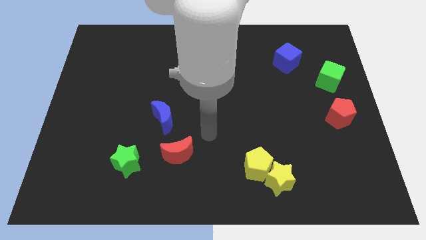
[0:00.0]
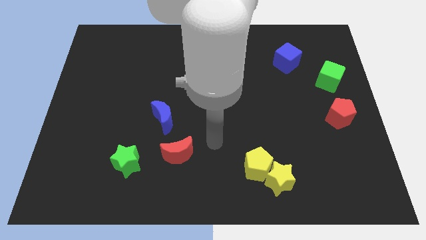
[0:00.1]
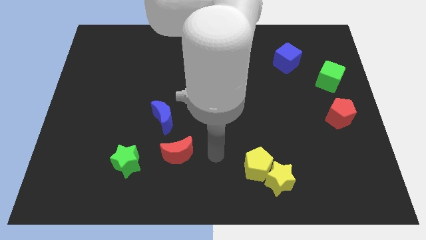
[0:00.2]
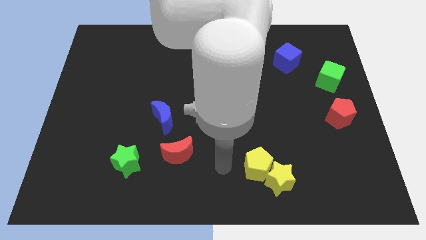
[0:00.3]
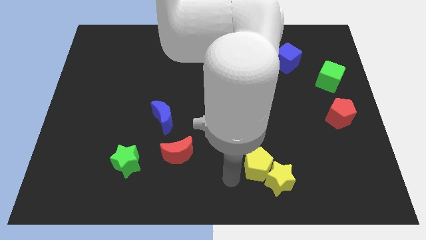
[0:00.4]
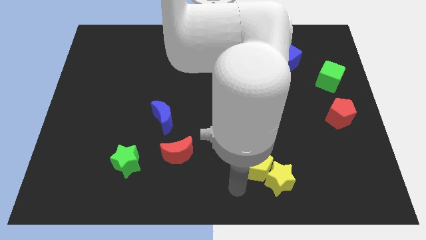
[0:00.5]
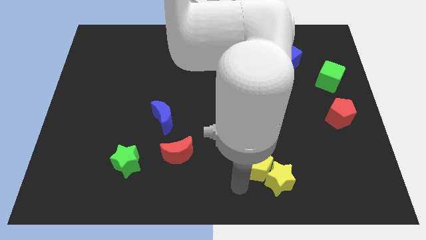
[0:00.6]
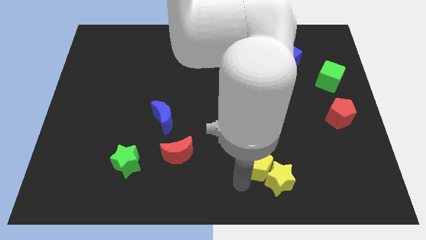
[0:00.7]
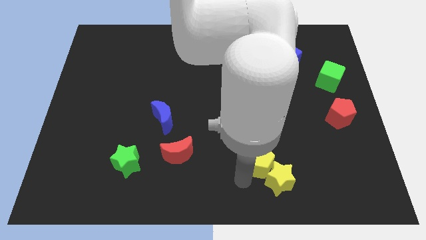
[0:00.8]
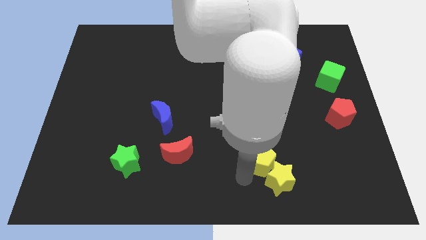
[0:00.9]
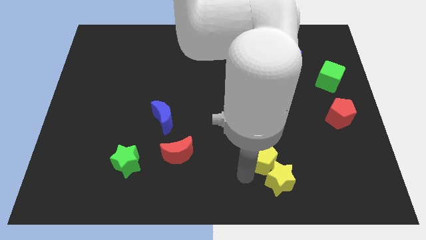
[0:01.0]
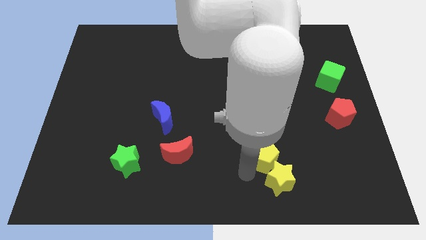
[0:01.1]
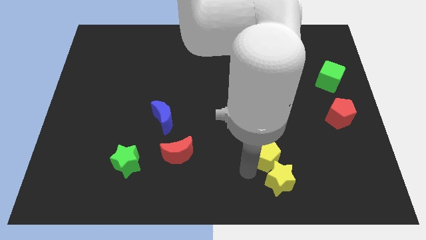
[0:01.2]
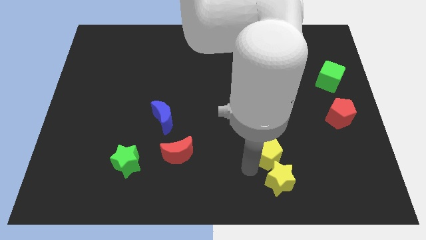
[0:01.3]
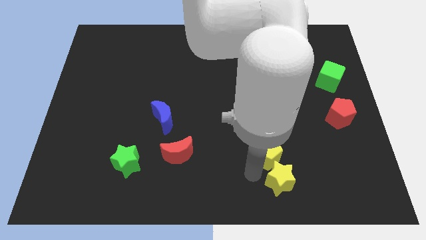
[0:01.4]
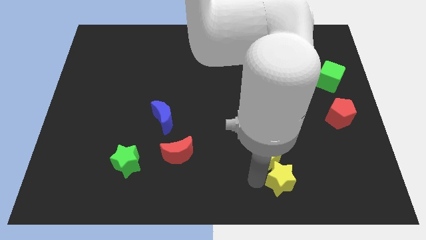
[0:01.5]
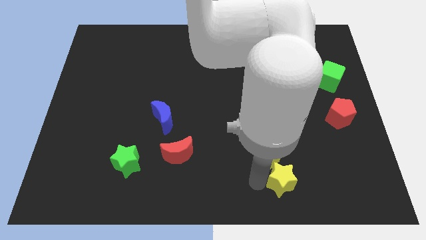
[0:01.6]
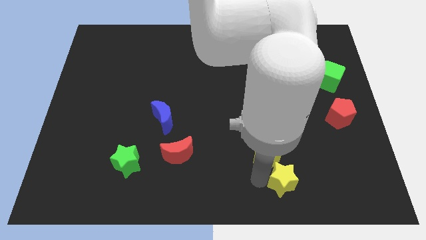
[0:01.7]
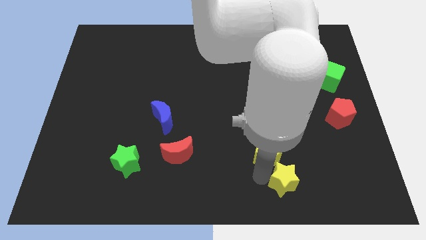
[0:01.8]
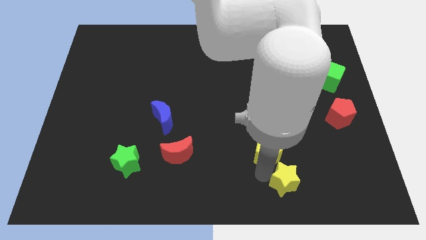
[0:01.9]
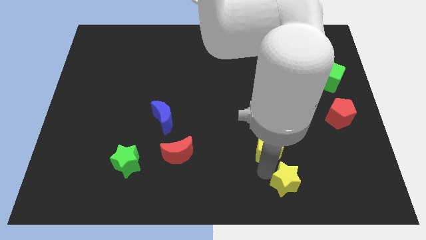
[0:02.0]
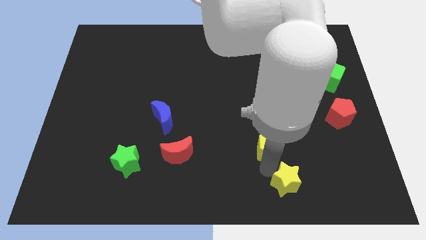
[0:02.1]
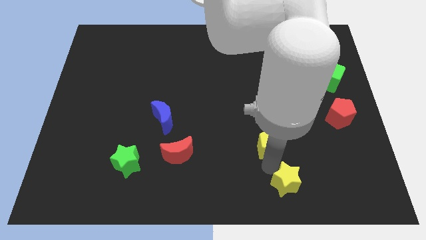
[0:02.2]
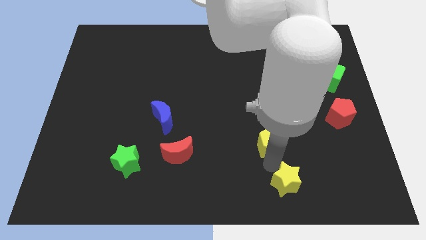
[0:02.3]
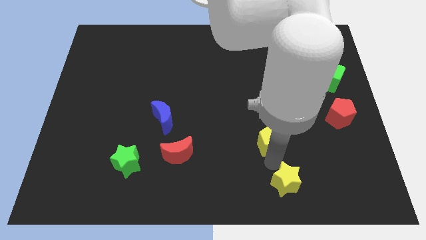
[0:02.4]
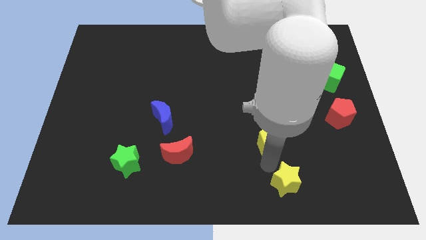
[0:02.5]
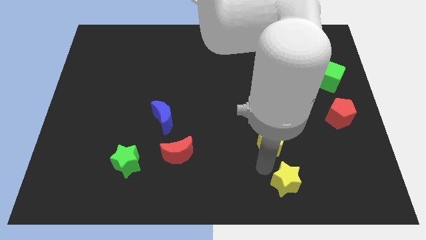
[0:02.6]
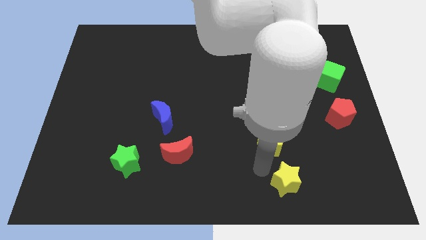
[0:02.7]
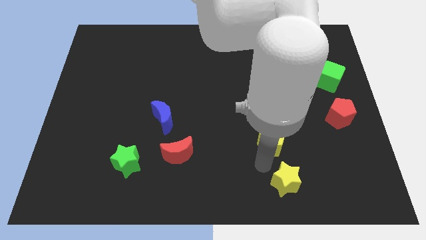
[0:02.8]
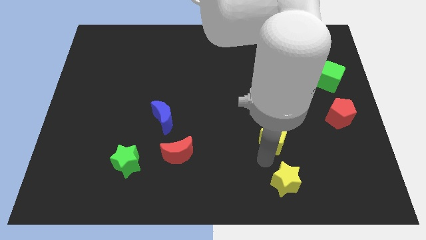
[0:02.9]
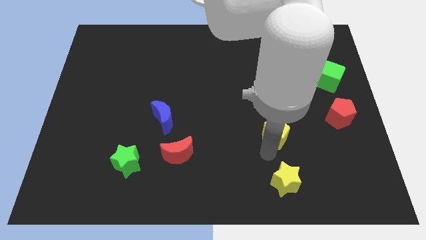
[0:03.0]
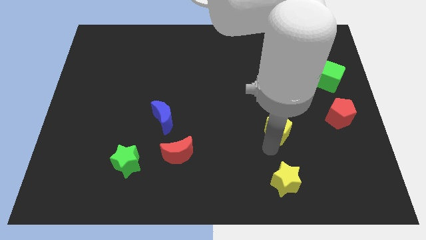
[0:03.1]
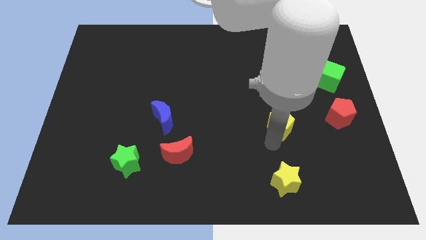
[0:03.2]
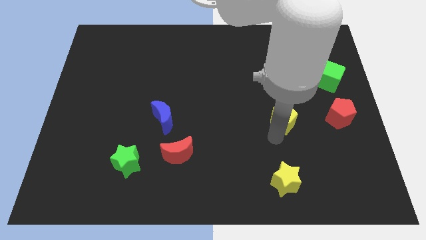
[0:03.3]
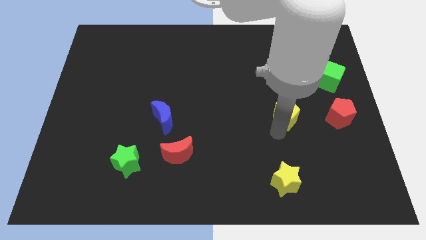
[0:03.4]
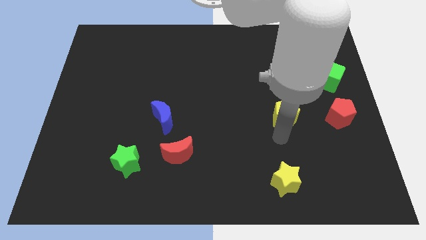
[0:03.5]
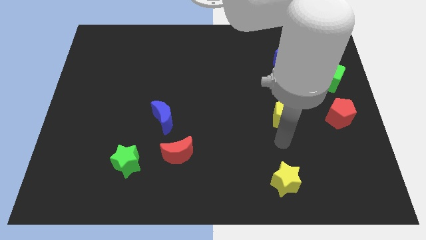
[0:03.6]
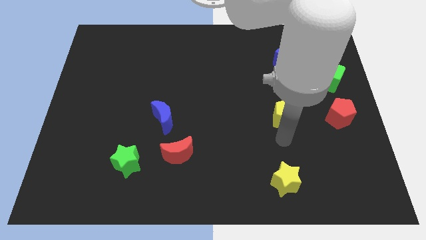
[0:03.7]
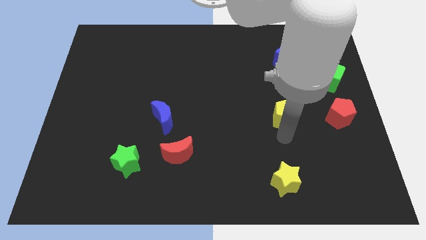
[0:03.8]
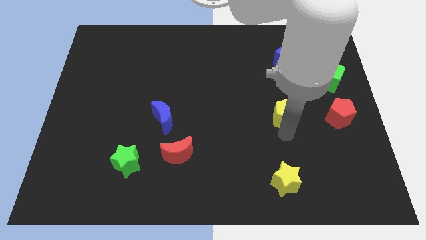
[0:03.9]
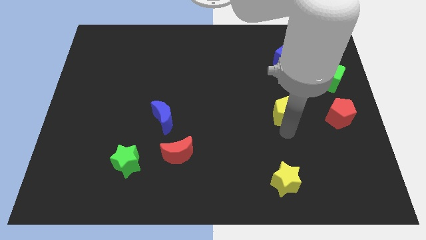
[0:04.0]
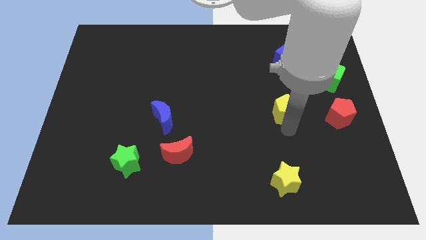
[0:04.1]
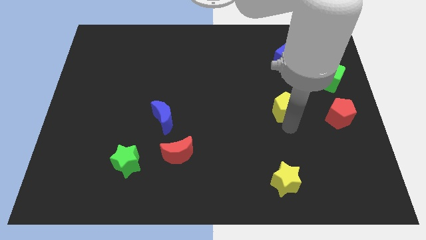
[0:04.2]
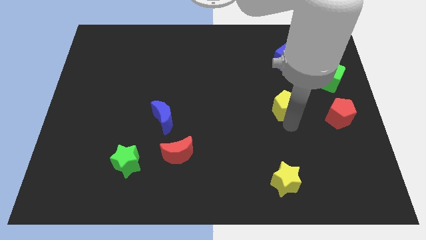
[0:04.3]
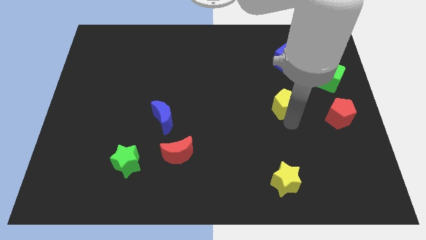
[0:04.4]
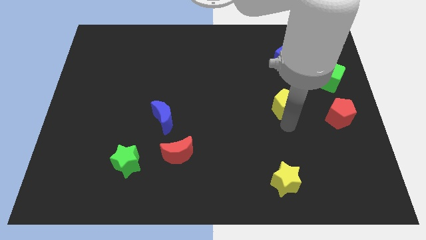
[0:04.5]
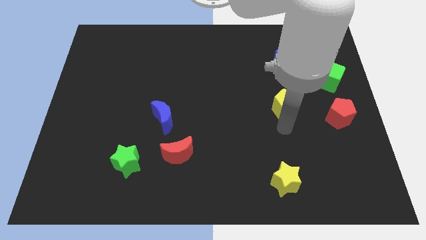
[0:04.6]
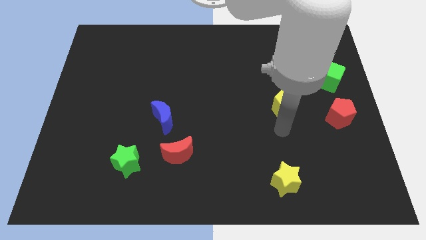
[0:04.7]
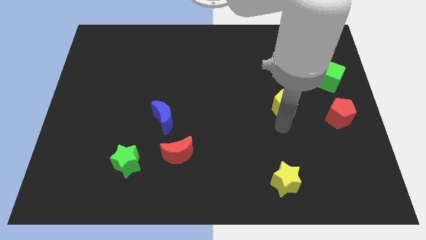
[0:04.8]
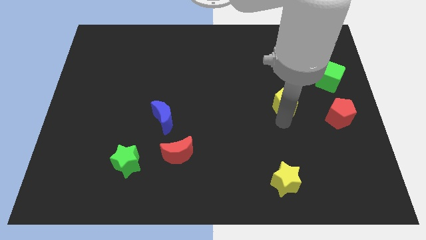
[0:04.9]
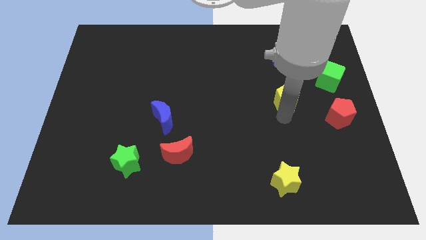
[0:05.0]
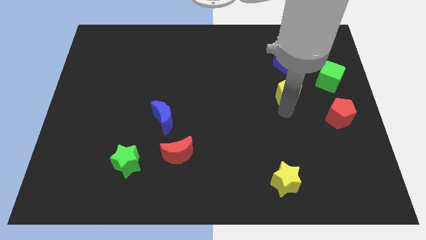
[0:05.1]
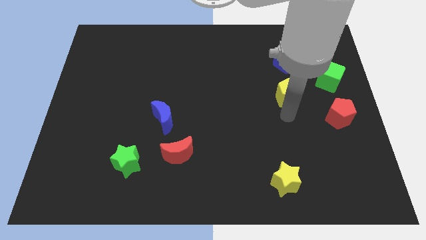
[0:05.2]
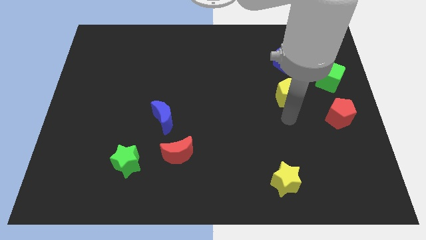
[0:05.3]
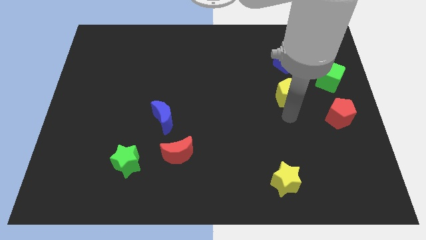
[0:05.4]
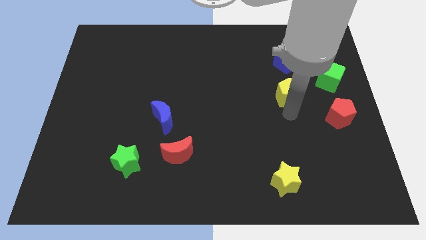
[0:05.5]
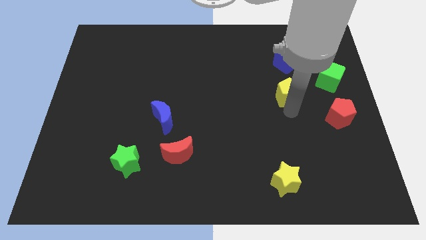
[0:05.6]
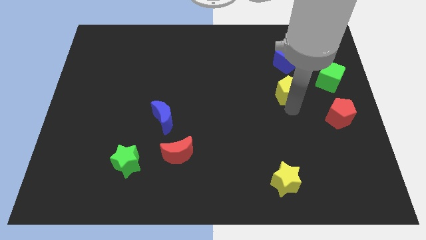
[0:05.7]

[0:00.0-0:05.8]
move the yellow pentagon left of the green cube

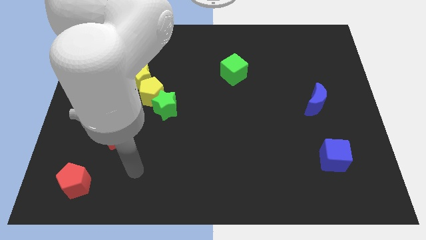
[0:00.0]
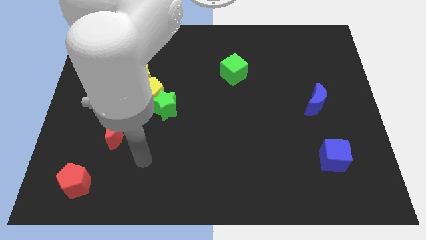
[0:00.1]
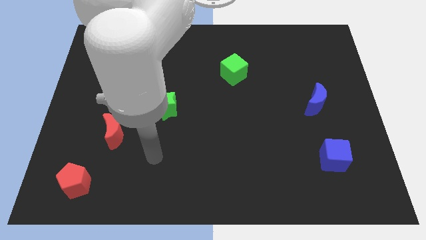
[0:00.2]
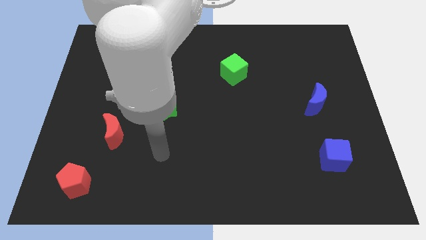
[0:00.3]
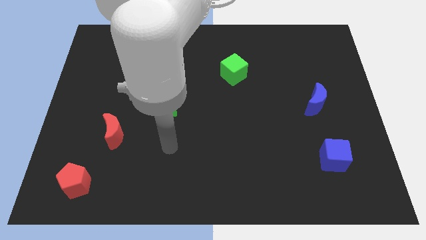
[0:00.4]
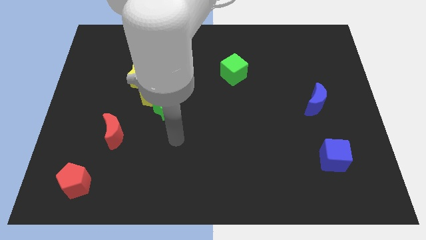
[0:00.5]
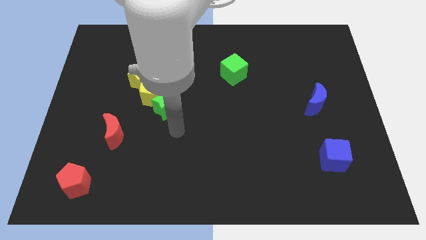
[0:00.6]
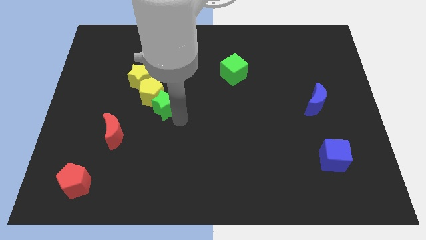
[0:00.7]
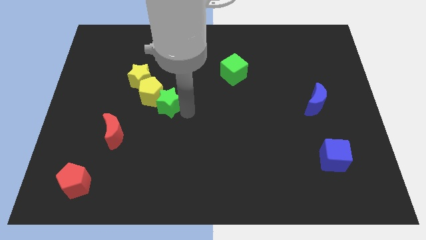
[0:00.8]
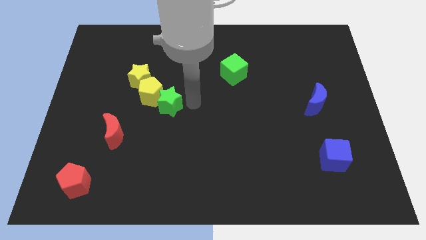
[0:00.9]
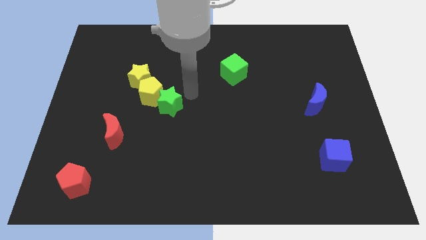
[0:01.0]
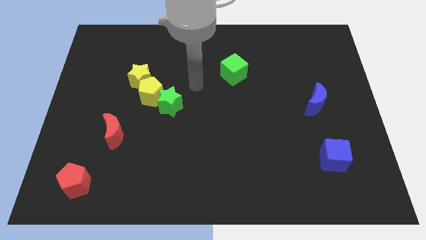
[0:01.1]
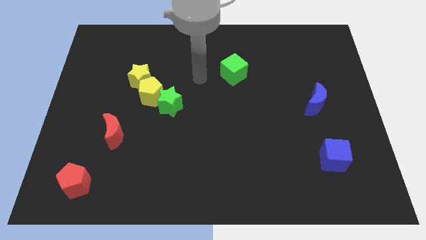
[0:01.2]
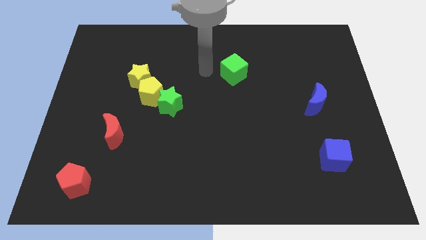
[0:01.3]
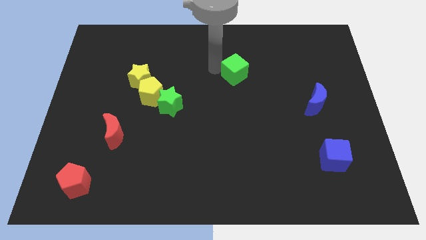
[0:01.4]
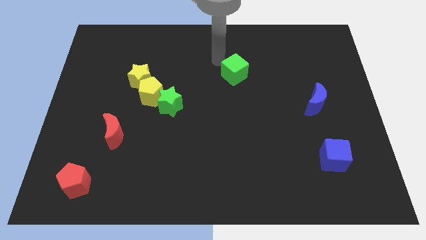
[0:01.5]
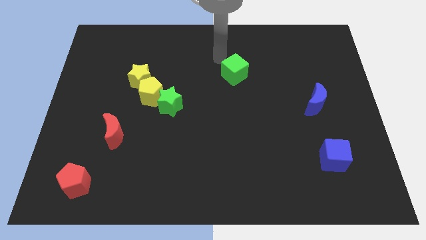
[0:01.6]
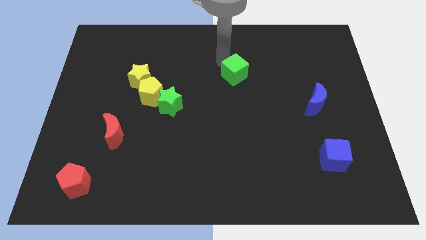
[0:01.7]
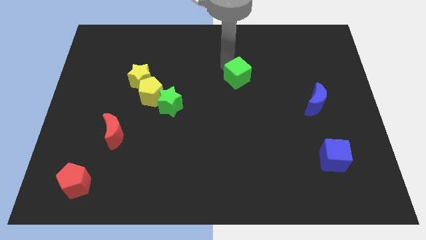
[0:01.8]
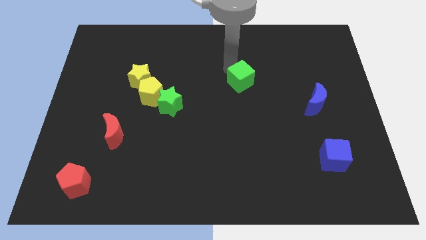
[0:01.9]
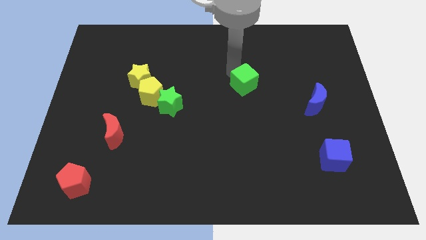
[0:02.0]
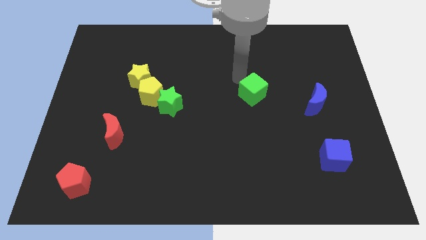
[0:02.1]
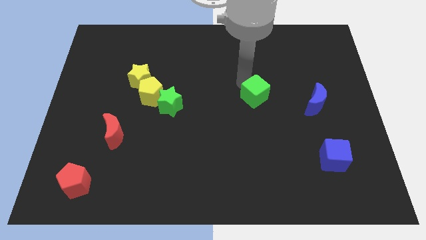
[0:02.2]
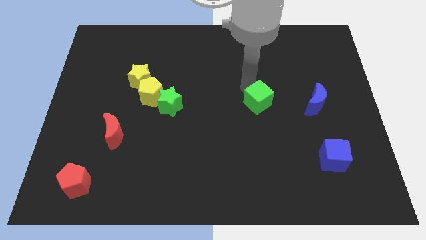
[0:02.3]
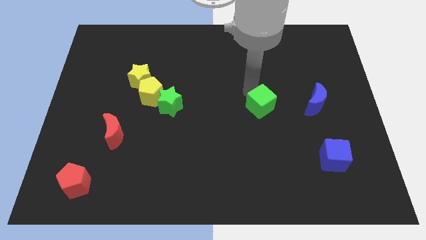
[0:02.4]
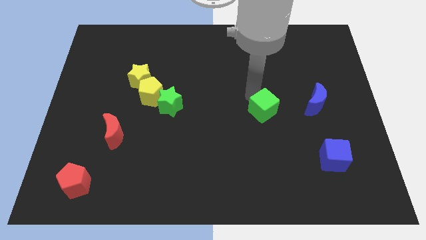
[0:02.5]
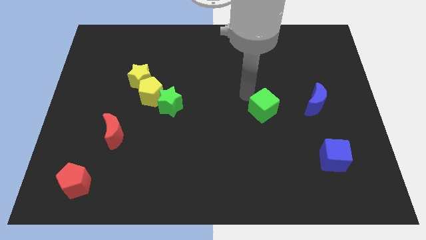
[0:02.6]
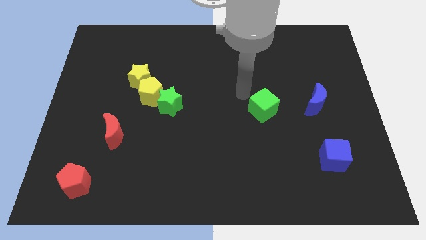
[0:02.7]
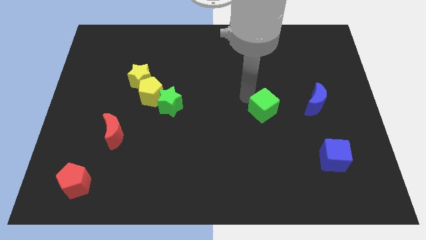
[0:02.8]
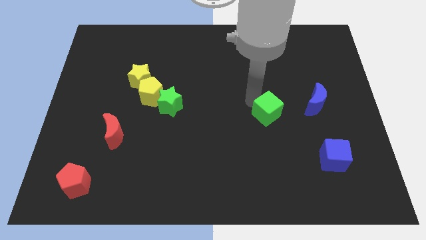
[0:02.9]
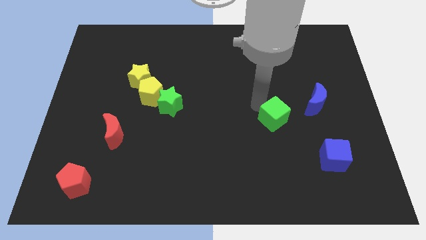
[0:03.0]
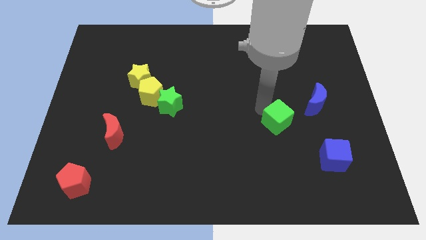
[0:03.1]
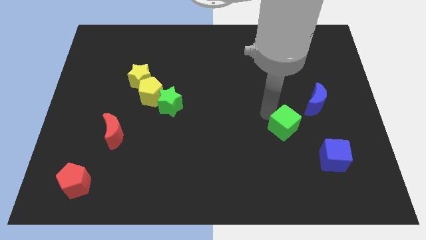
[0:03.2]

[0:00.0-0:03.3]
put the green cube to the top left of the blue cube
